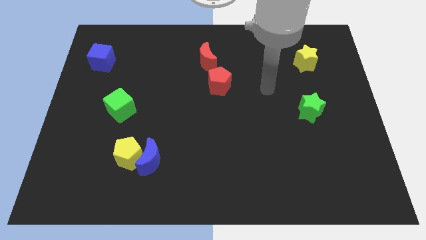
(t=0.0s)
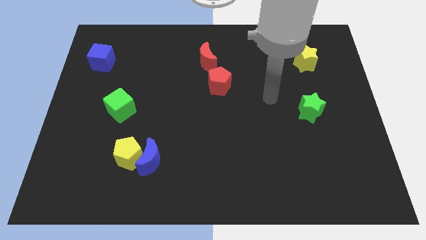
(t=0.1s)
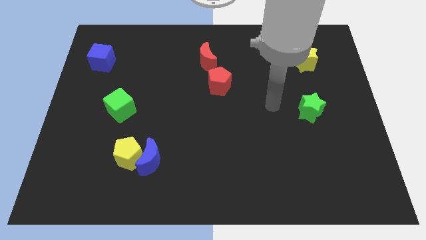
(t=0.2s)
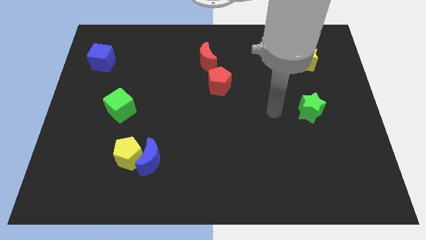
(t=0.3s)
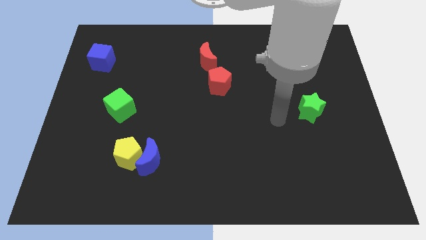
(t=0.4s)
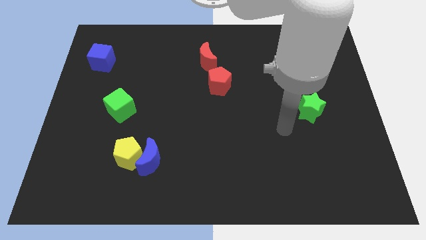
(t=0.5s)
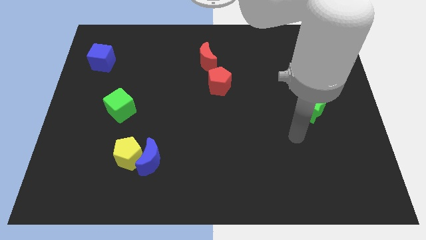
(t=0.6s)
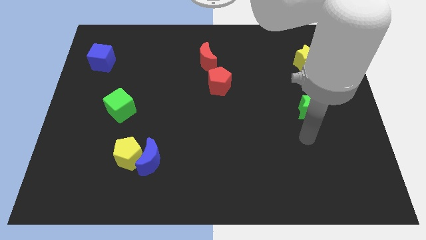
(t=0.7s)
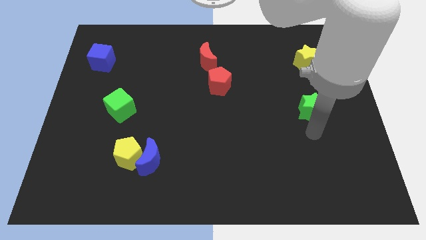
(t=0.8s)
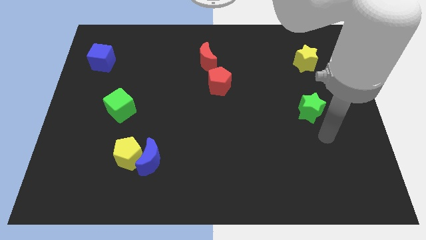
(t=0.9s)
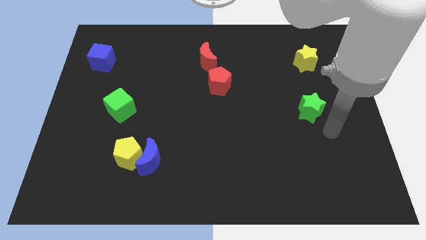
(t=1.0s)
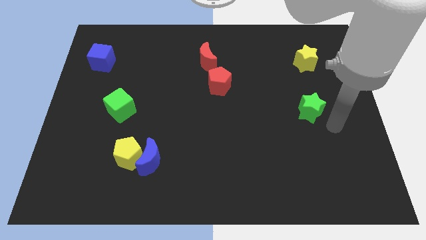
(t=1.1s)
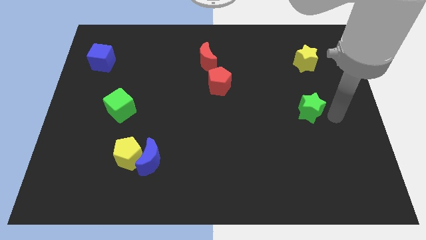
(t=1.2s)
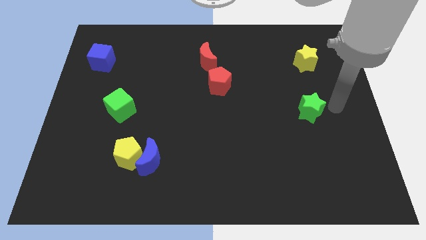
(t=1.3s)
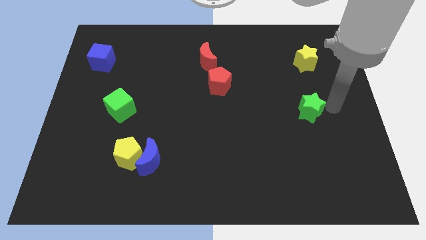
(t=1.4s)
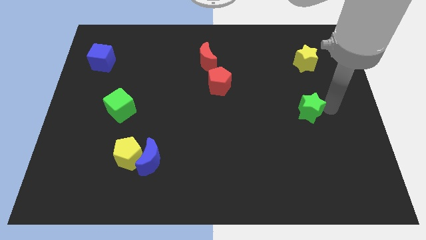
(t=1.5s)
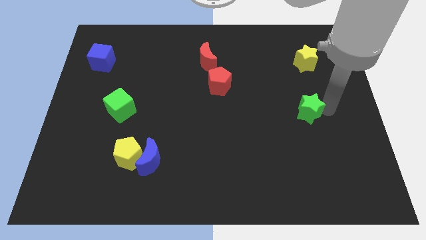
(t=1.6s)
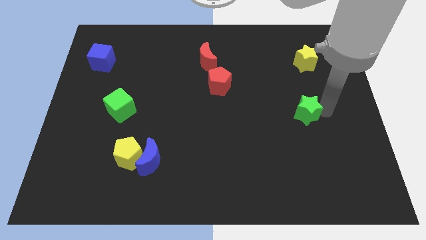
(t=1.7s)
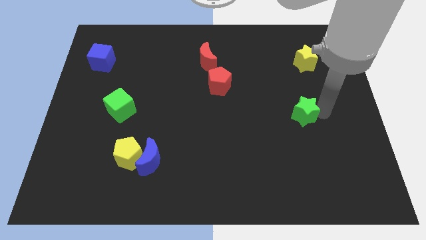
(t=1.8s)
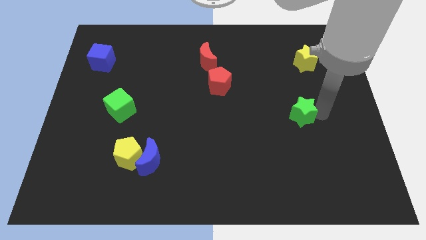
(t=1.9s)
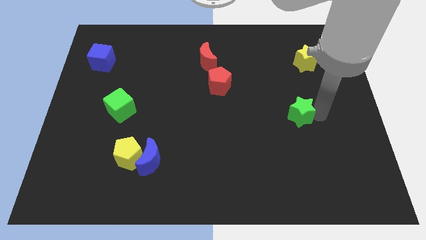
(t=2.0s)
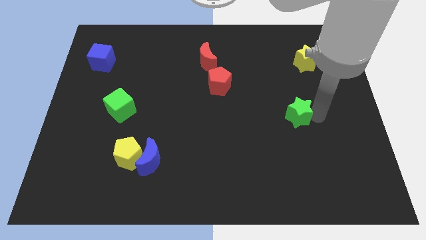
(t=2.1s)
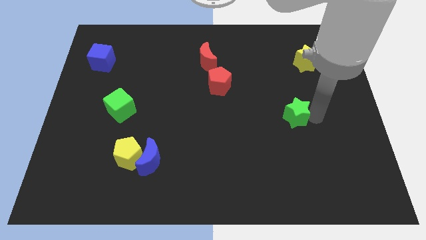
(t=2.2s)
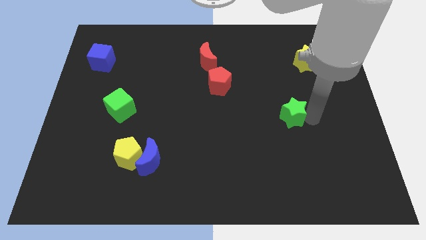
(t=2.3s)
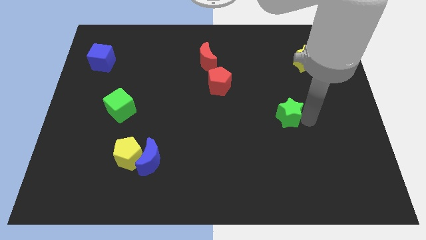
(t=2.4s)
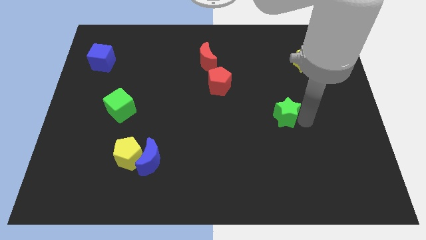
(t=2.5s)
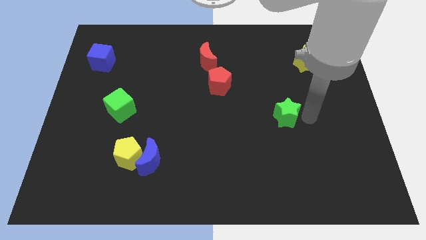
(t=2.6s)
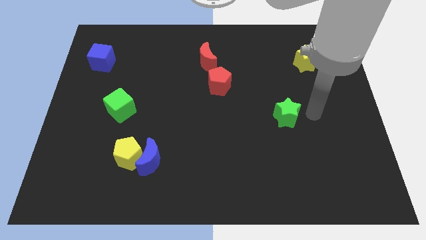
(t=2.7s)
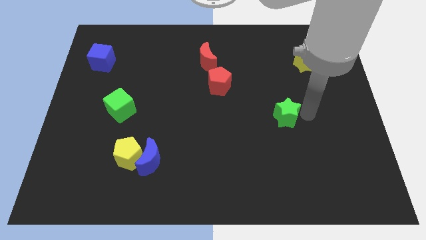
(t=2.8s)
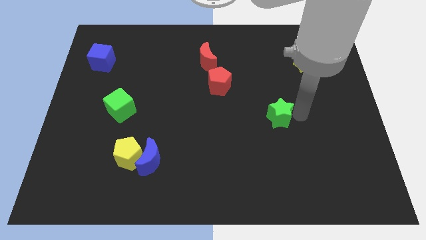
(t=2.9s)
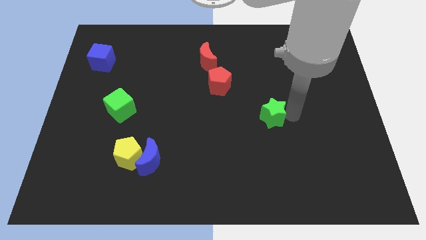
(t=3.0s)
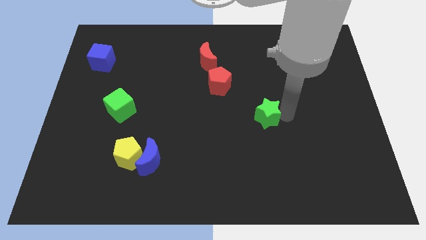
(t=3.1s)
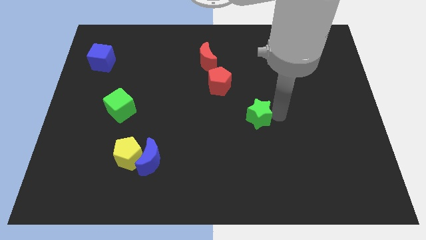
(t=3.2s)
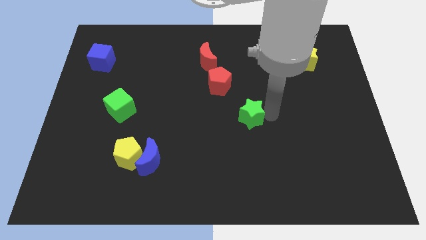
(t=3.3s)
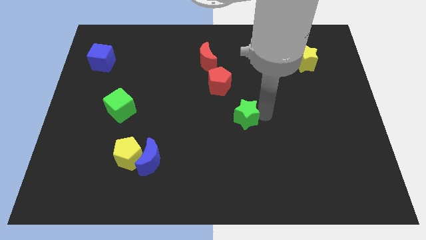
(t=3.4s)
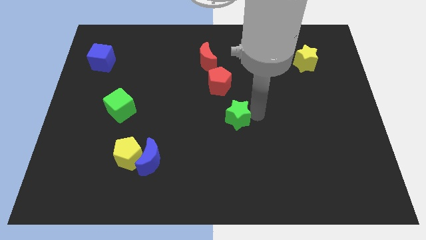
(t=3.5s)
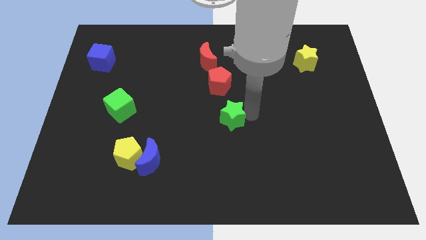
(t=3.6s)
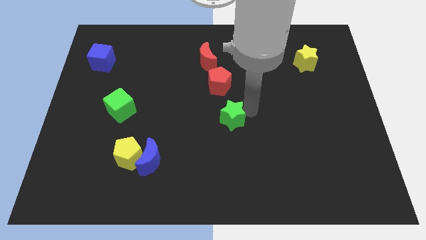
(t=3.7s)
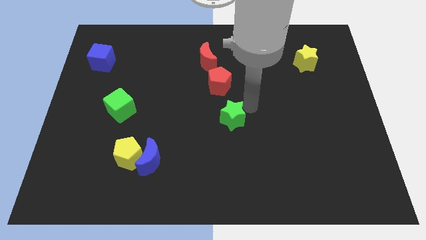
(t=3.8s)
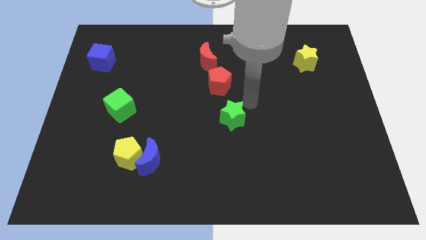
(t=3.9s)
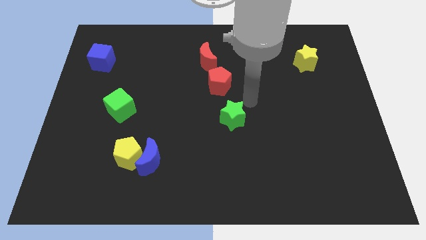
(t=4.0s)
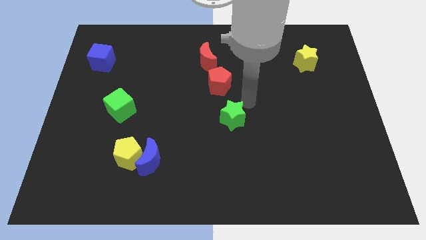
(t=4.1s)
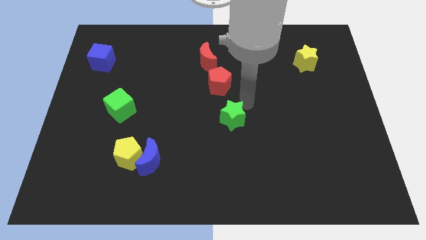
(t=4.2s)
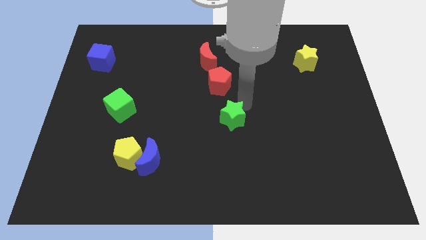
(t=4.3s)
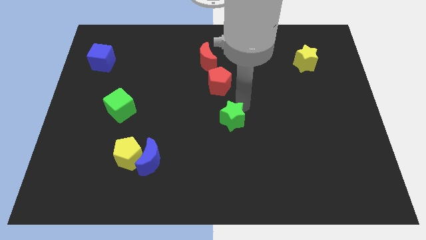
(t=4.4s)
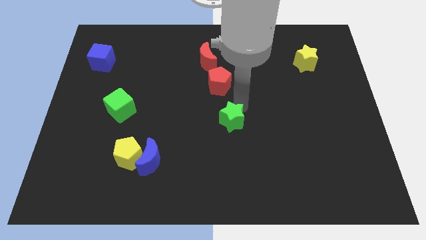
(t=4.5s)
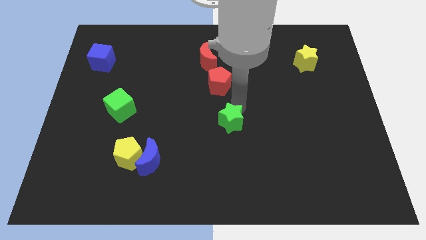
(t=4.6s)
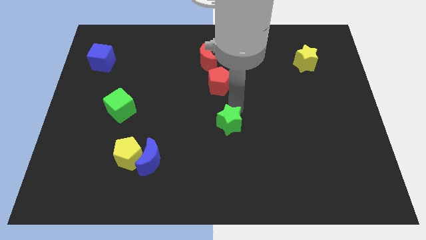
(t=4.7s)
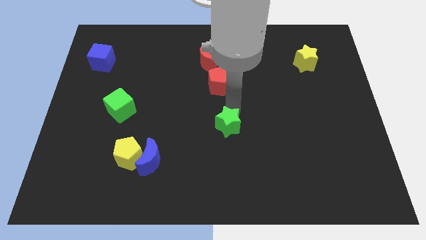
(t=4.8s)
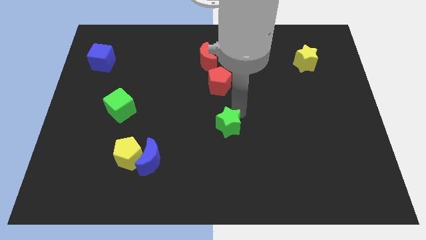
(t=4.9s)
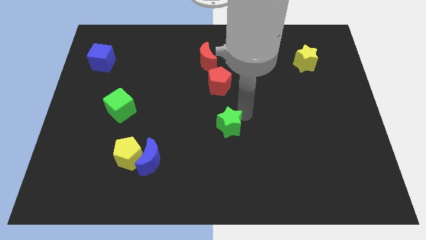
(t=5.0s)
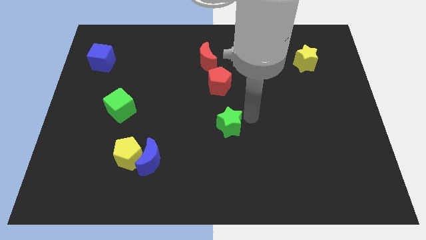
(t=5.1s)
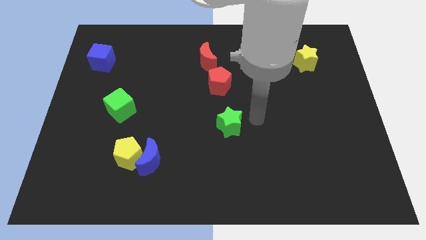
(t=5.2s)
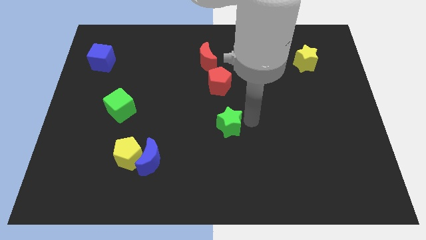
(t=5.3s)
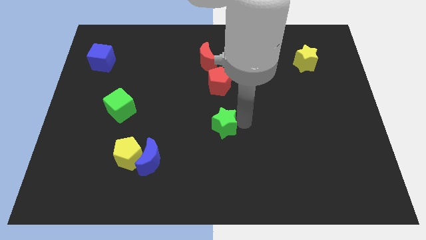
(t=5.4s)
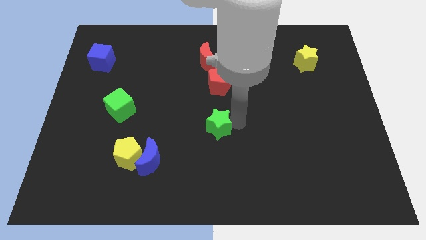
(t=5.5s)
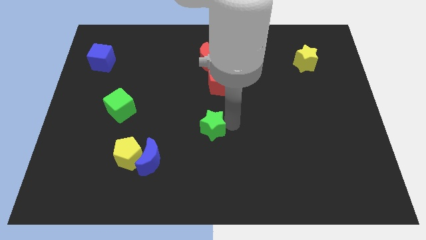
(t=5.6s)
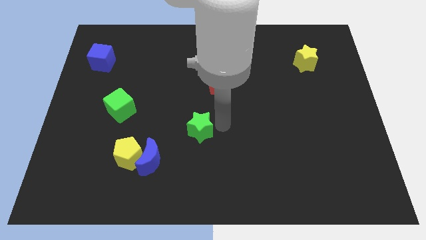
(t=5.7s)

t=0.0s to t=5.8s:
push the green star to the top right side of the blue moon

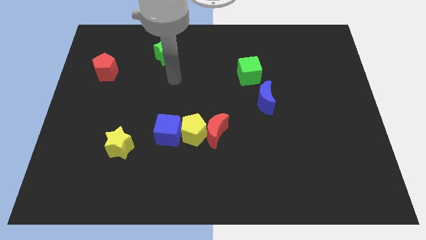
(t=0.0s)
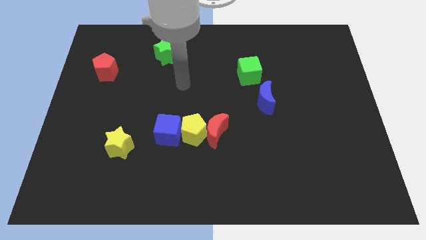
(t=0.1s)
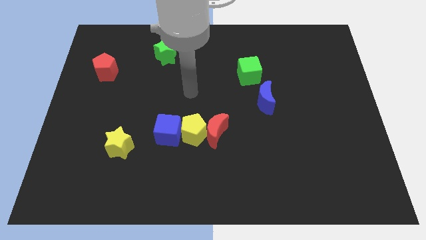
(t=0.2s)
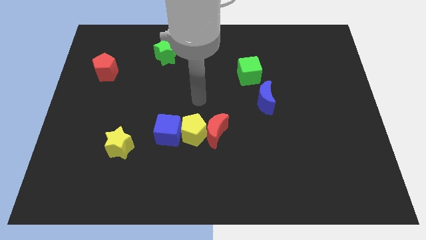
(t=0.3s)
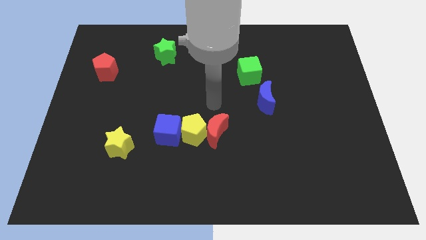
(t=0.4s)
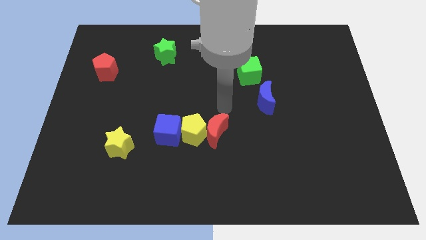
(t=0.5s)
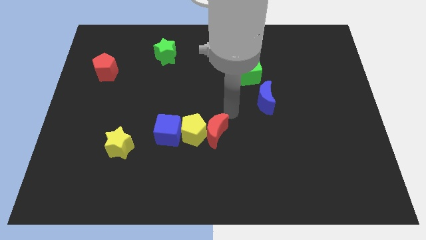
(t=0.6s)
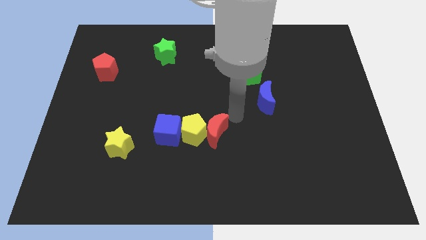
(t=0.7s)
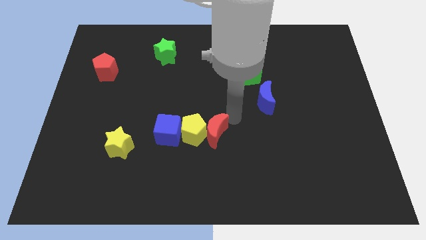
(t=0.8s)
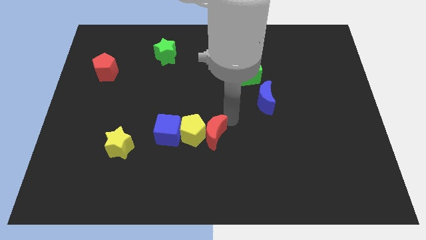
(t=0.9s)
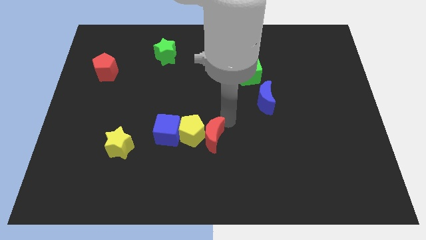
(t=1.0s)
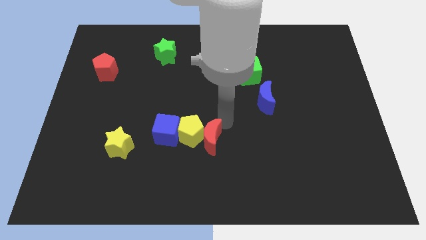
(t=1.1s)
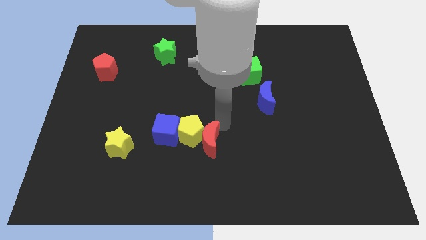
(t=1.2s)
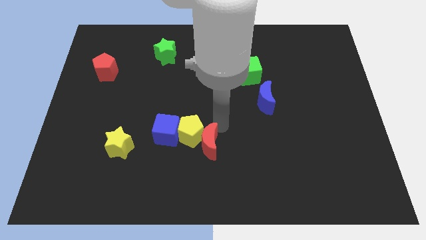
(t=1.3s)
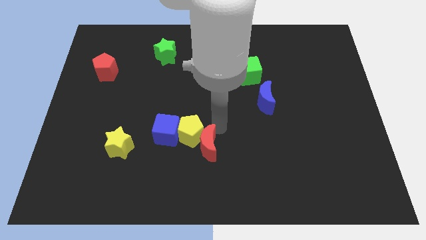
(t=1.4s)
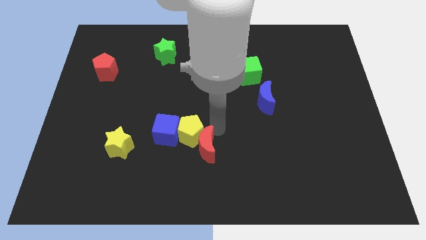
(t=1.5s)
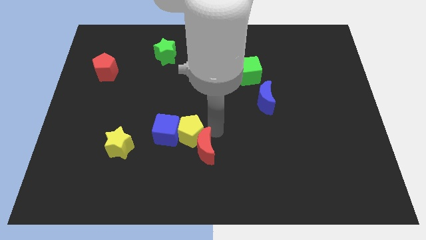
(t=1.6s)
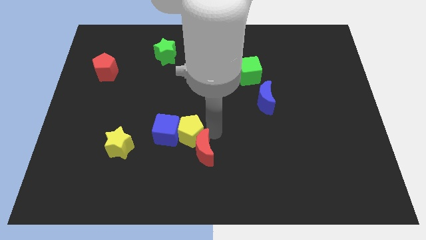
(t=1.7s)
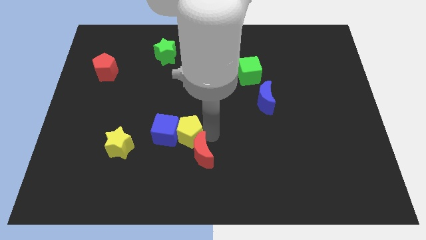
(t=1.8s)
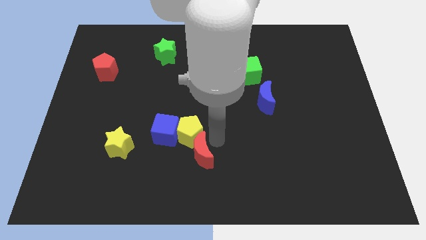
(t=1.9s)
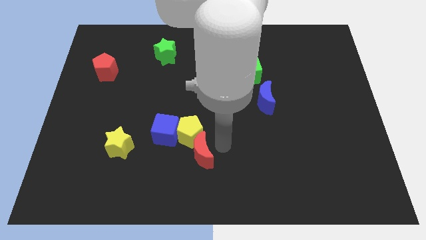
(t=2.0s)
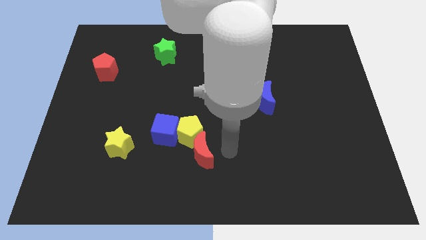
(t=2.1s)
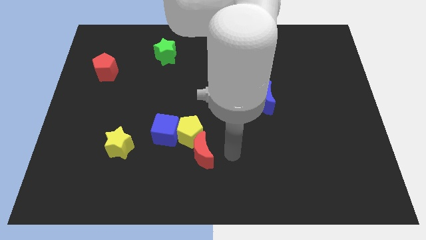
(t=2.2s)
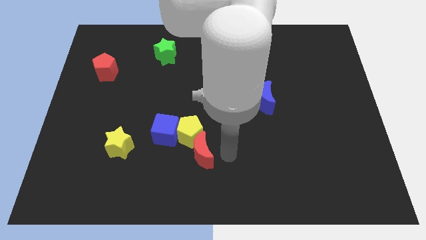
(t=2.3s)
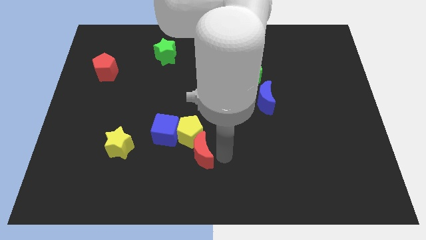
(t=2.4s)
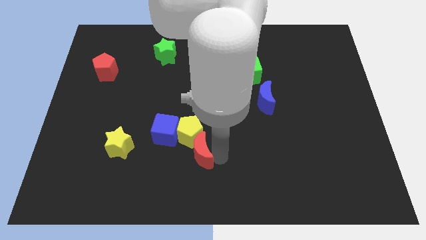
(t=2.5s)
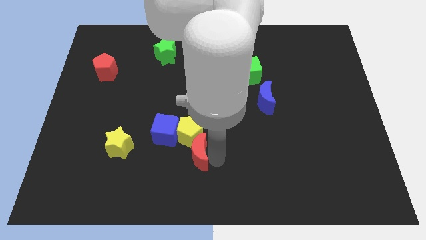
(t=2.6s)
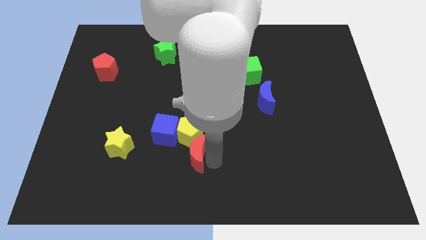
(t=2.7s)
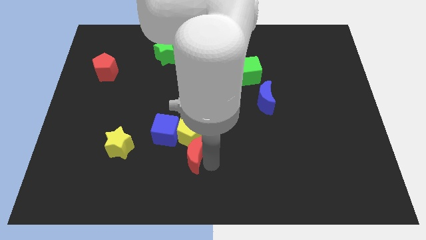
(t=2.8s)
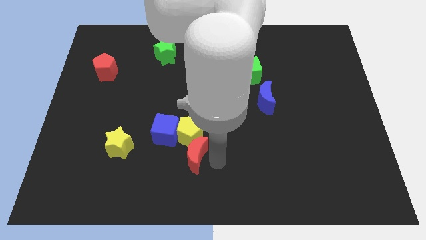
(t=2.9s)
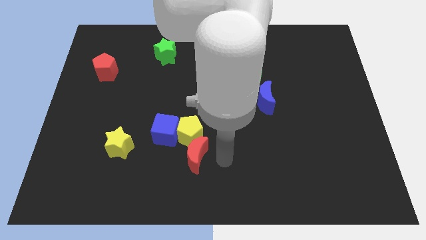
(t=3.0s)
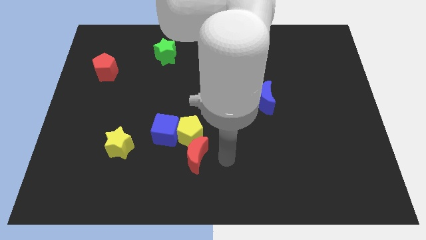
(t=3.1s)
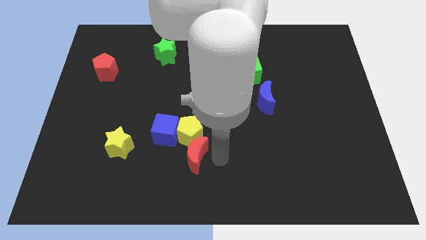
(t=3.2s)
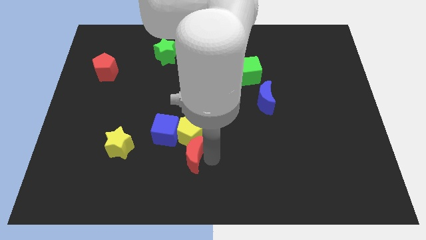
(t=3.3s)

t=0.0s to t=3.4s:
push the red moon to the bottom left side of the yellow pentagon
